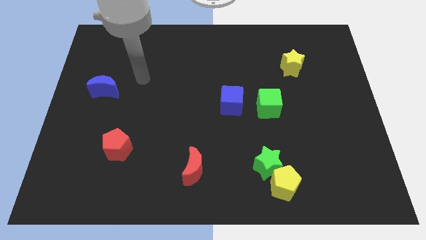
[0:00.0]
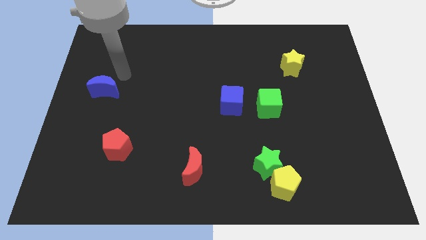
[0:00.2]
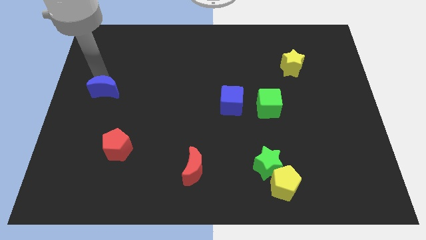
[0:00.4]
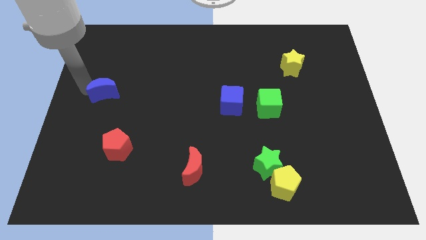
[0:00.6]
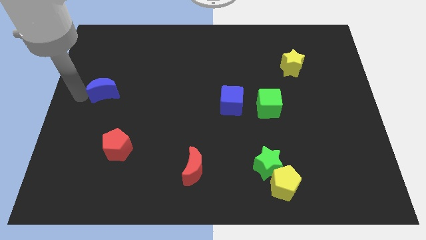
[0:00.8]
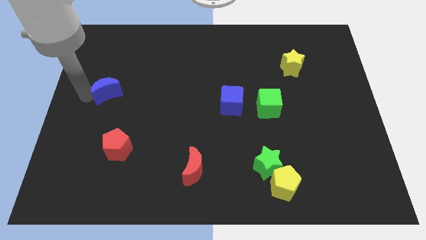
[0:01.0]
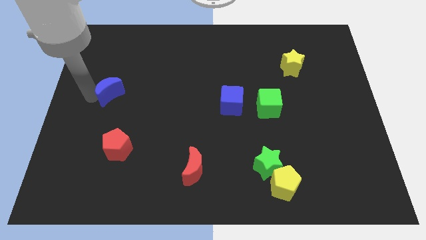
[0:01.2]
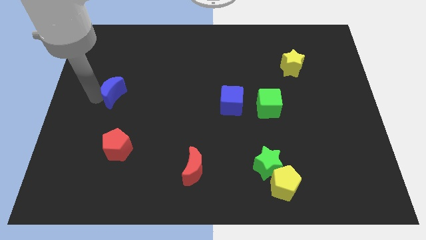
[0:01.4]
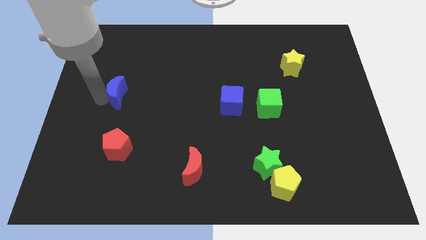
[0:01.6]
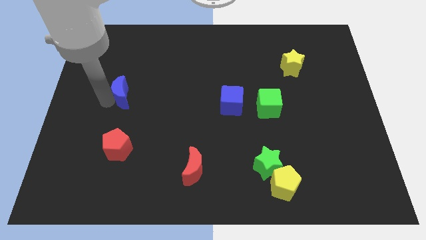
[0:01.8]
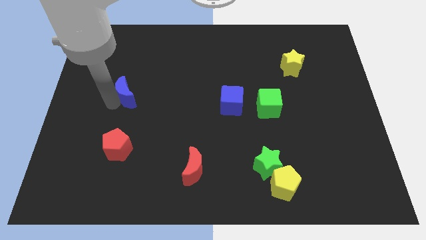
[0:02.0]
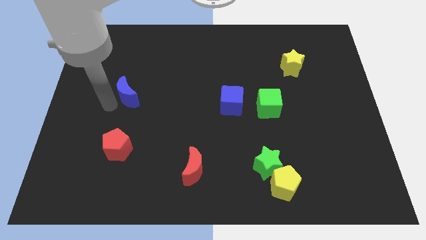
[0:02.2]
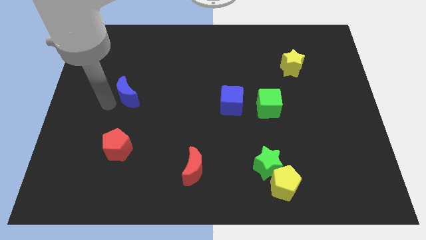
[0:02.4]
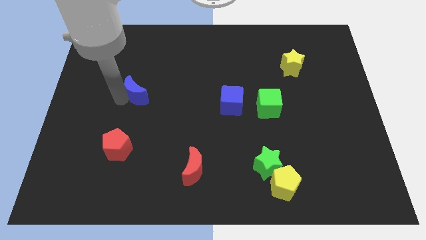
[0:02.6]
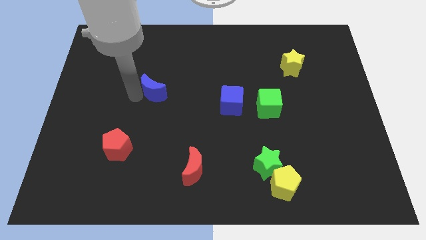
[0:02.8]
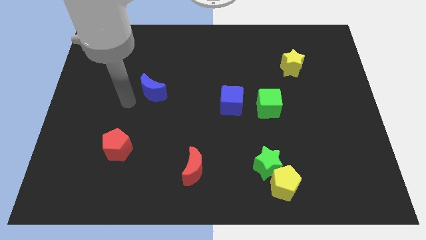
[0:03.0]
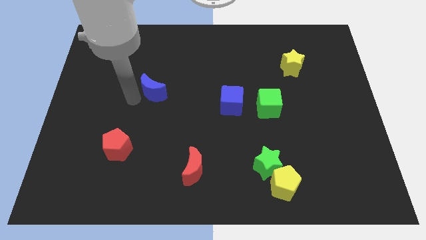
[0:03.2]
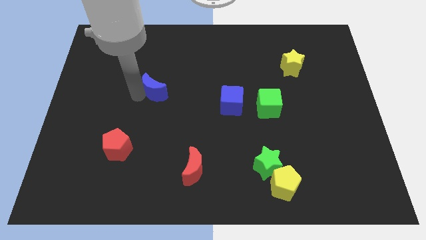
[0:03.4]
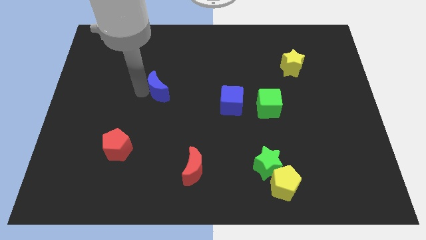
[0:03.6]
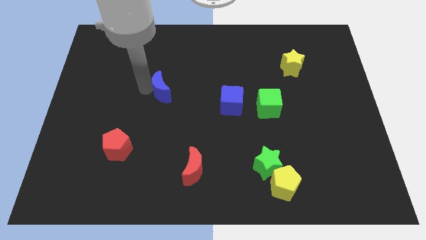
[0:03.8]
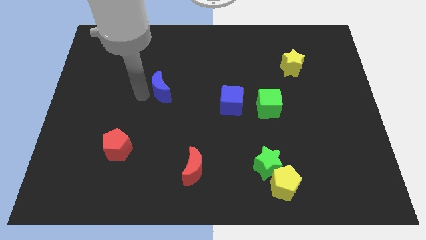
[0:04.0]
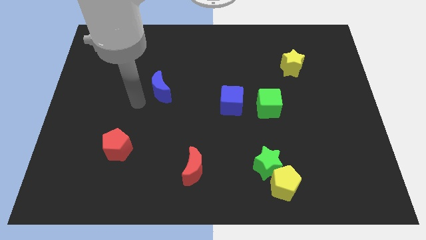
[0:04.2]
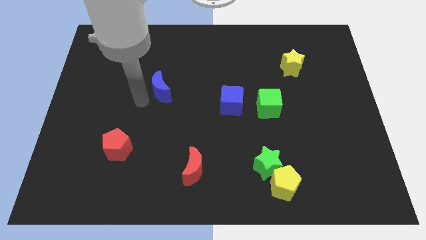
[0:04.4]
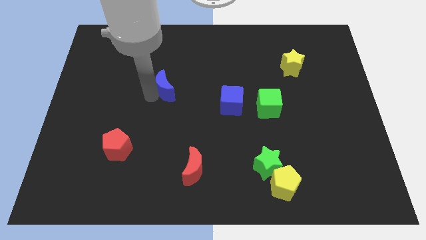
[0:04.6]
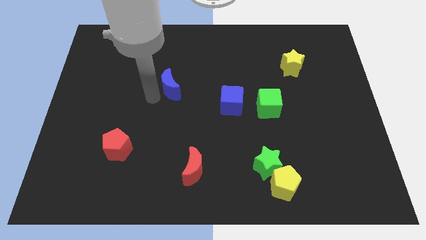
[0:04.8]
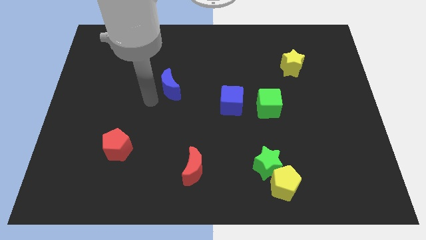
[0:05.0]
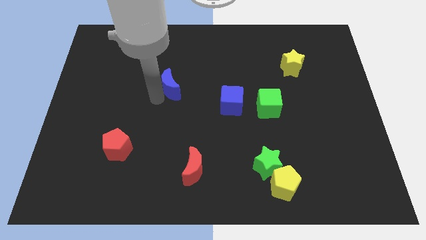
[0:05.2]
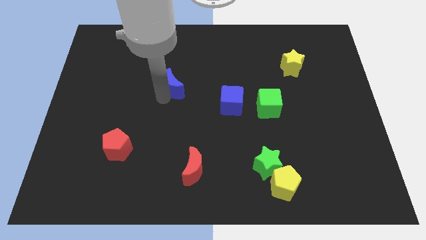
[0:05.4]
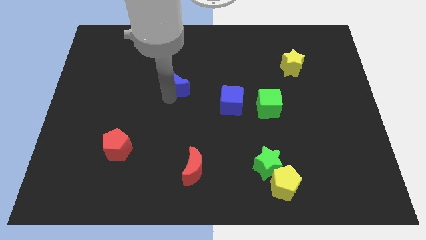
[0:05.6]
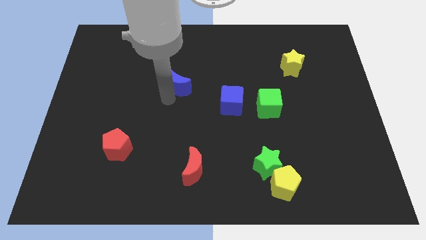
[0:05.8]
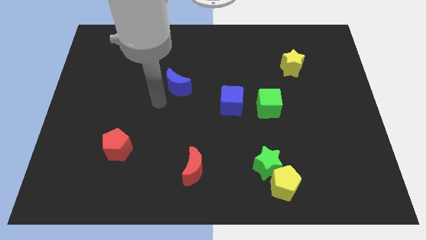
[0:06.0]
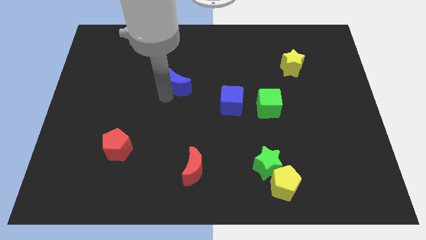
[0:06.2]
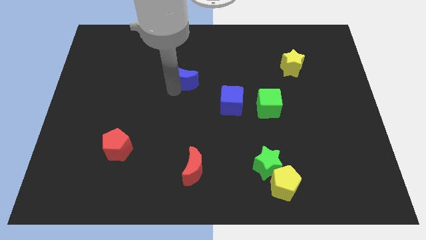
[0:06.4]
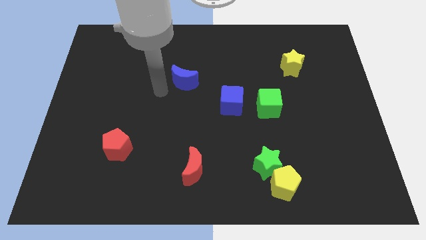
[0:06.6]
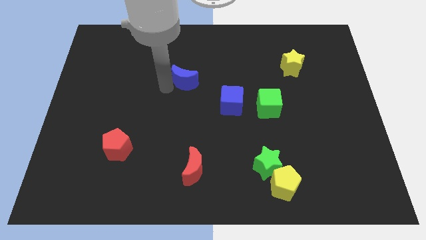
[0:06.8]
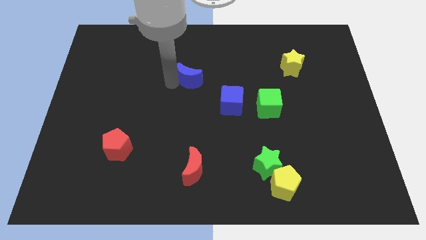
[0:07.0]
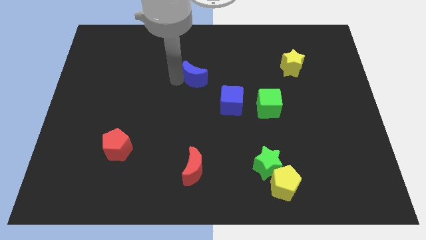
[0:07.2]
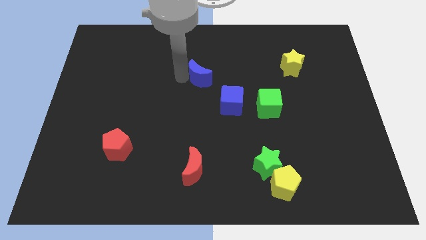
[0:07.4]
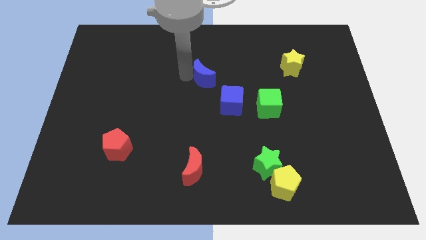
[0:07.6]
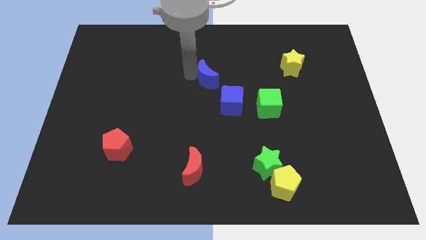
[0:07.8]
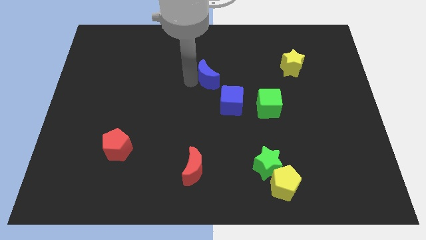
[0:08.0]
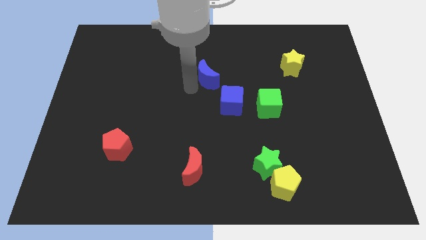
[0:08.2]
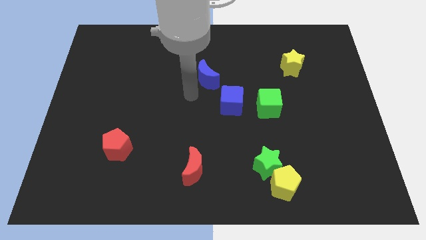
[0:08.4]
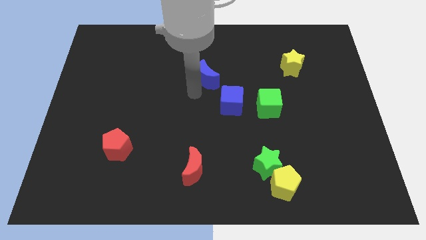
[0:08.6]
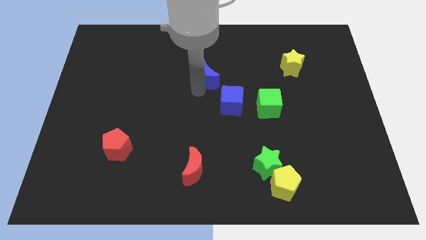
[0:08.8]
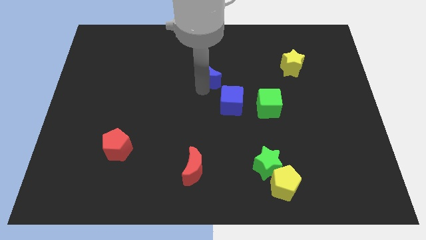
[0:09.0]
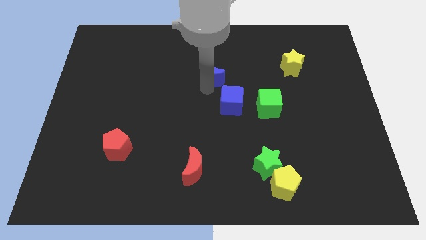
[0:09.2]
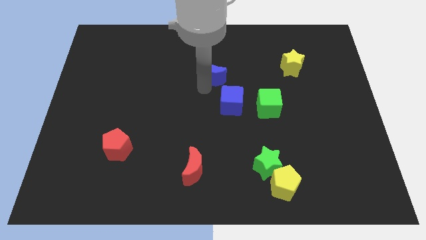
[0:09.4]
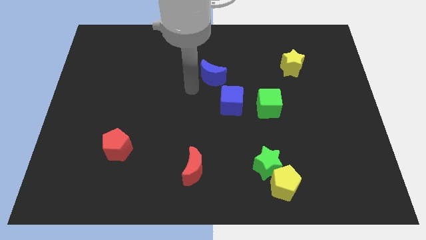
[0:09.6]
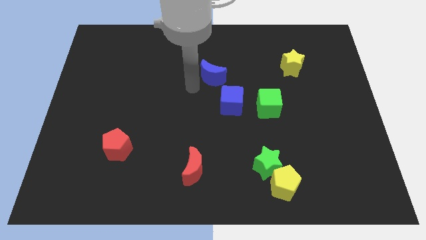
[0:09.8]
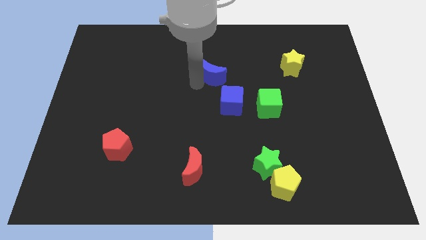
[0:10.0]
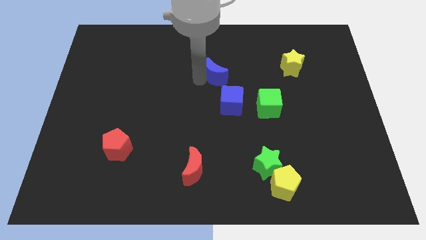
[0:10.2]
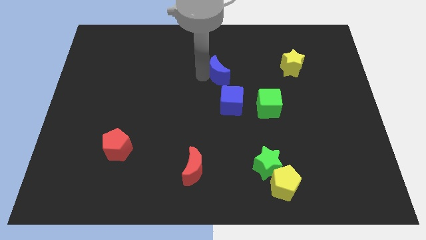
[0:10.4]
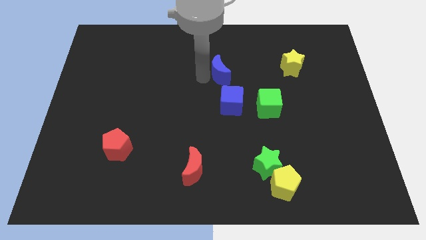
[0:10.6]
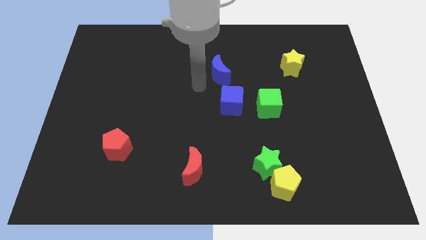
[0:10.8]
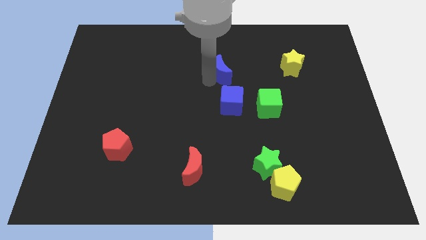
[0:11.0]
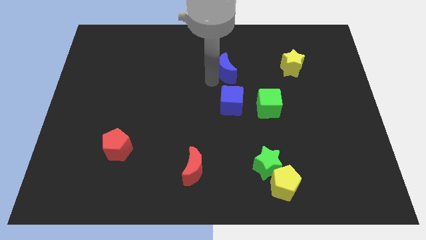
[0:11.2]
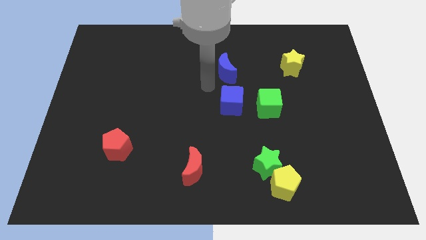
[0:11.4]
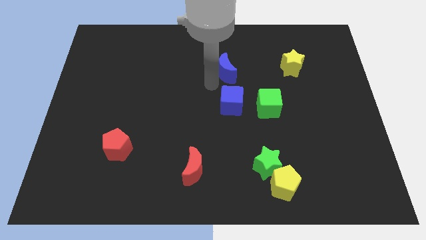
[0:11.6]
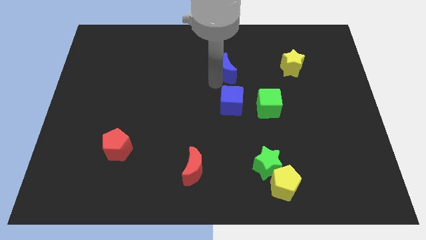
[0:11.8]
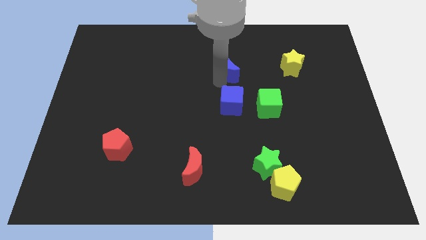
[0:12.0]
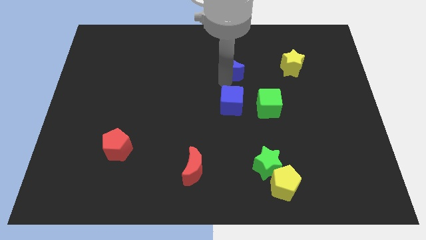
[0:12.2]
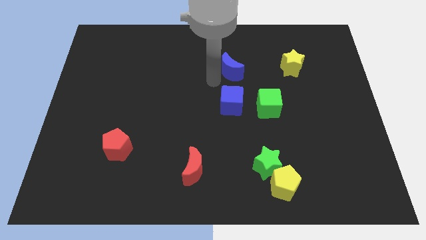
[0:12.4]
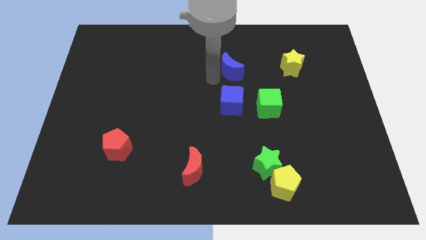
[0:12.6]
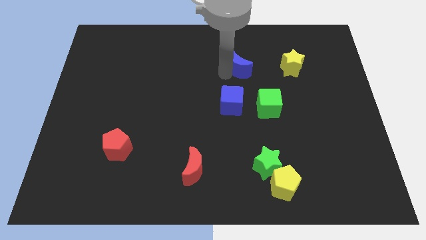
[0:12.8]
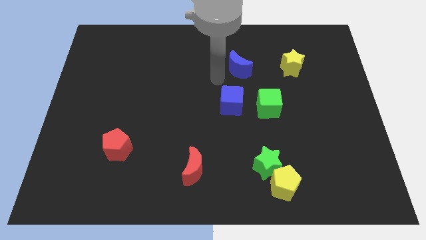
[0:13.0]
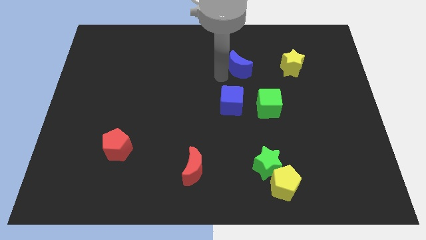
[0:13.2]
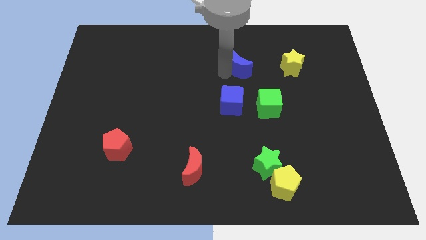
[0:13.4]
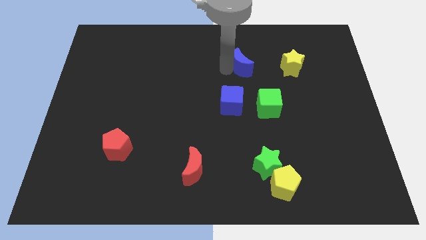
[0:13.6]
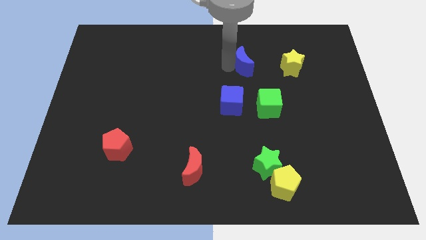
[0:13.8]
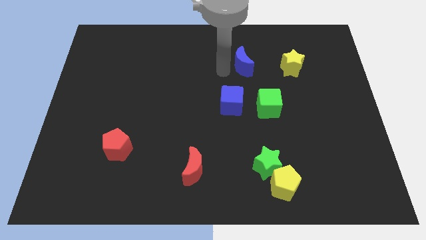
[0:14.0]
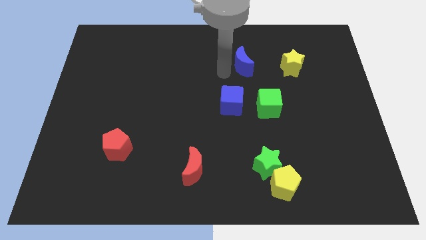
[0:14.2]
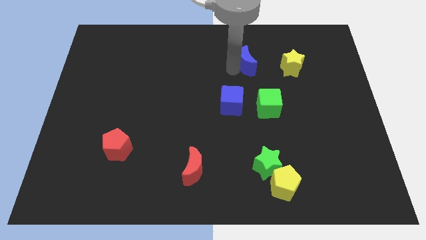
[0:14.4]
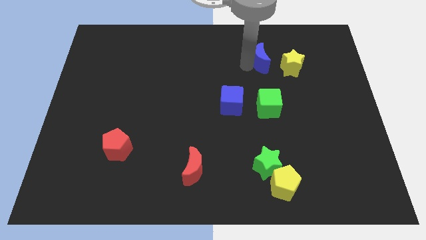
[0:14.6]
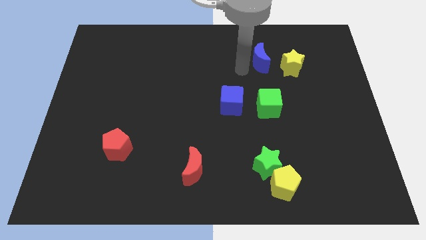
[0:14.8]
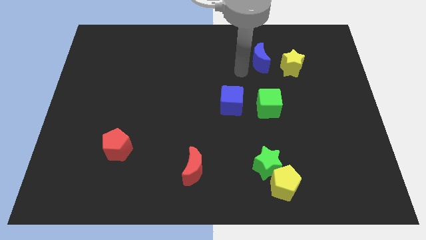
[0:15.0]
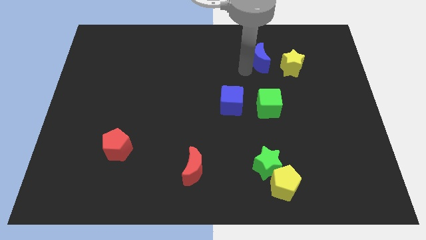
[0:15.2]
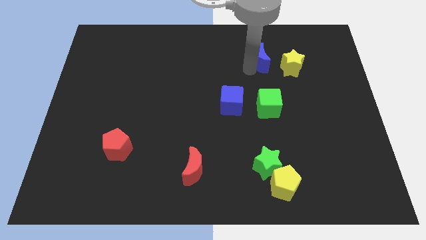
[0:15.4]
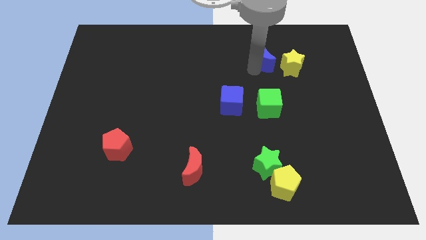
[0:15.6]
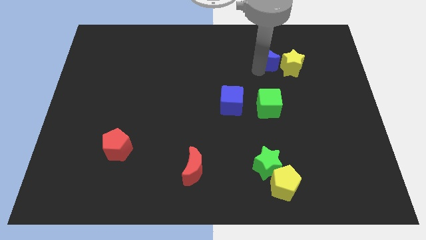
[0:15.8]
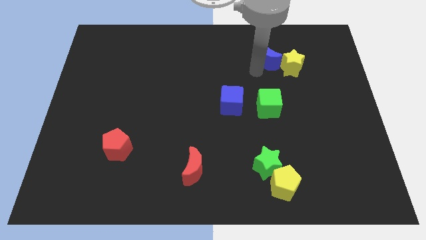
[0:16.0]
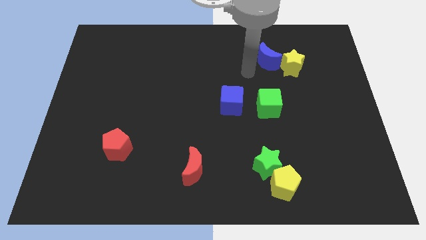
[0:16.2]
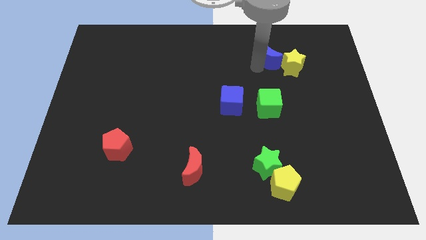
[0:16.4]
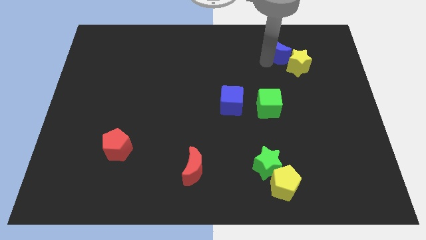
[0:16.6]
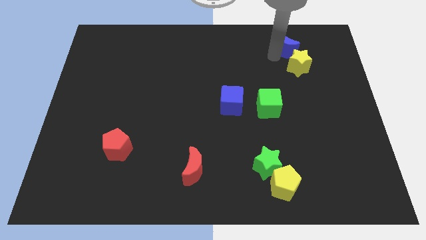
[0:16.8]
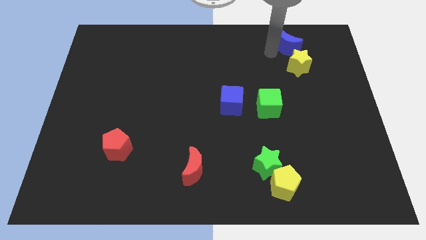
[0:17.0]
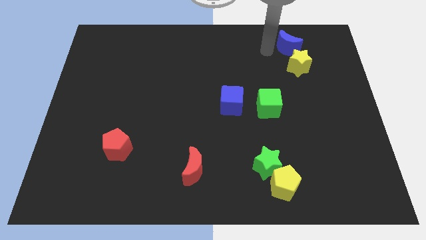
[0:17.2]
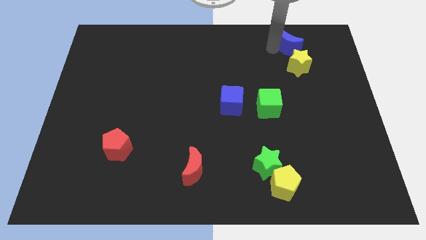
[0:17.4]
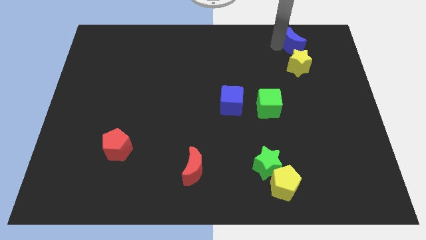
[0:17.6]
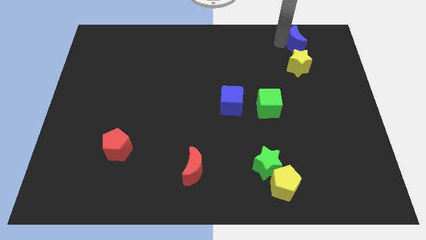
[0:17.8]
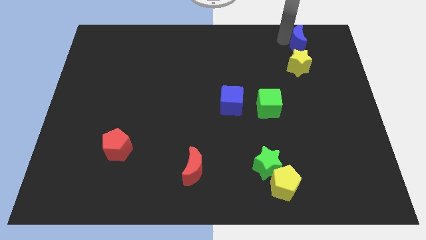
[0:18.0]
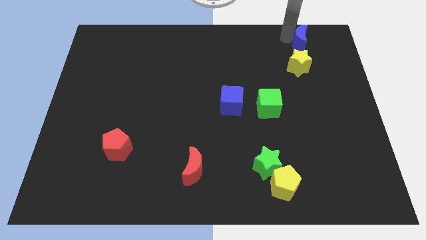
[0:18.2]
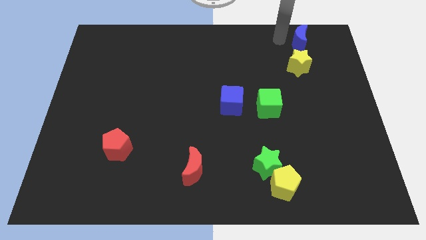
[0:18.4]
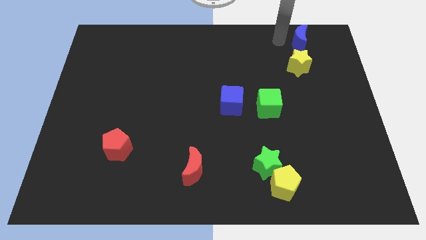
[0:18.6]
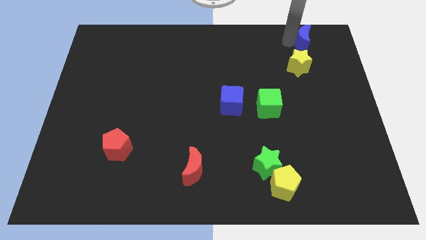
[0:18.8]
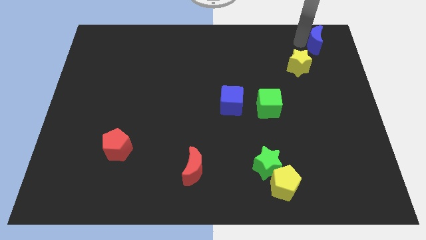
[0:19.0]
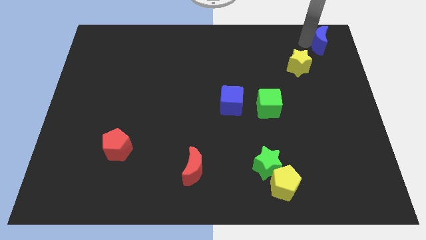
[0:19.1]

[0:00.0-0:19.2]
push the blue moon to the top right corner
